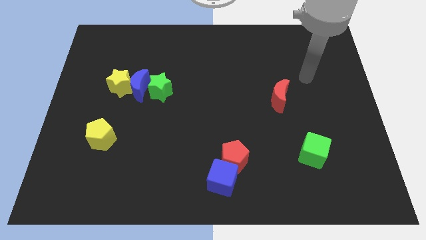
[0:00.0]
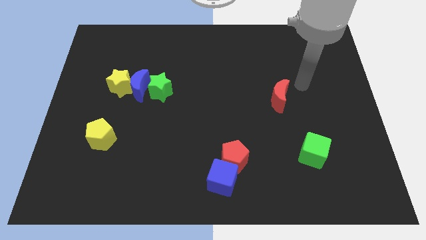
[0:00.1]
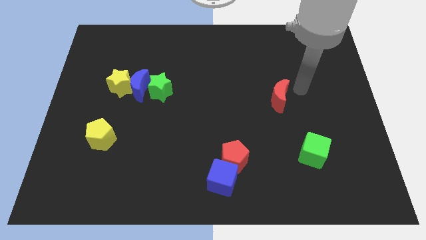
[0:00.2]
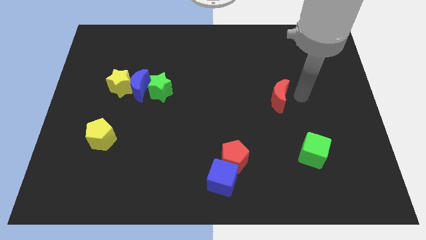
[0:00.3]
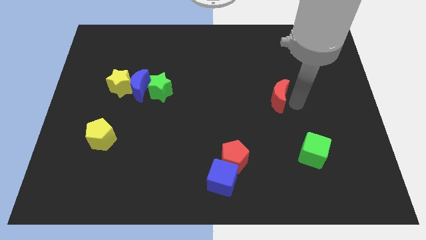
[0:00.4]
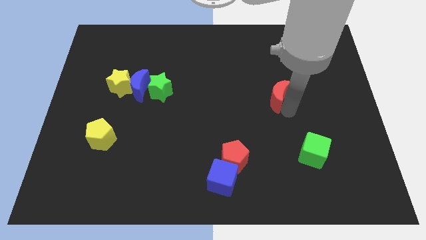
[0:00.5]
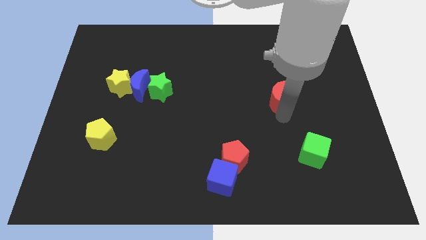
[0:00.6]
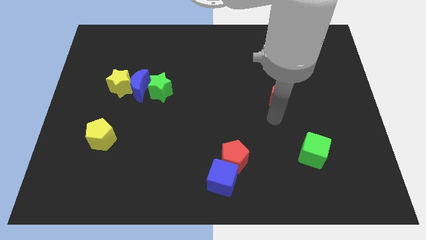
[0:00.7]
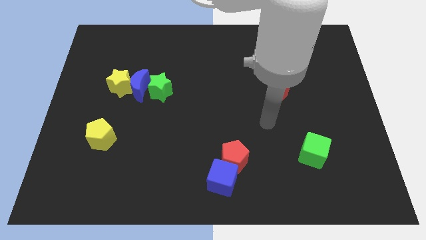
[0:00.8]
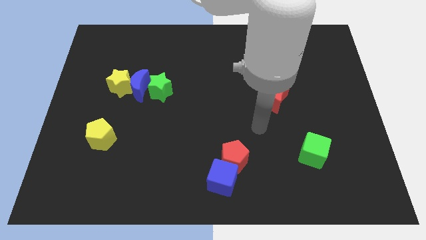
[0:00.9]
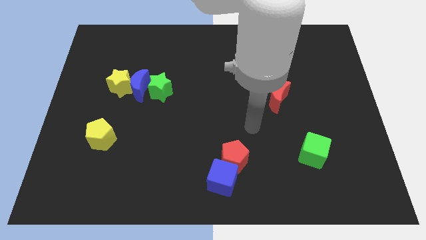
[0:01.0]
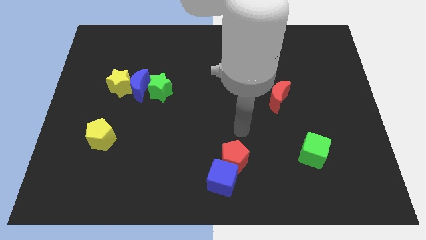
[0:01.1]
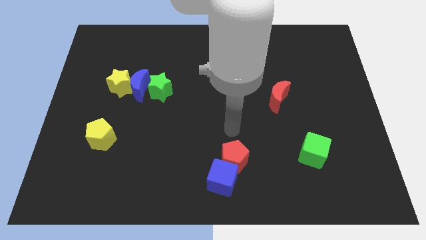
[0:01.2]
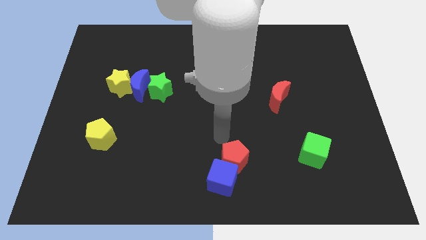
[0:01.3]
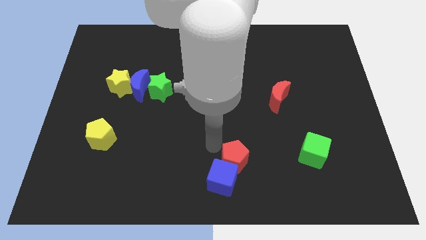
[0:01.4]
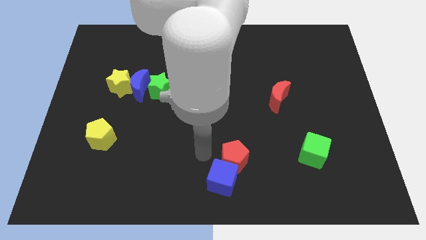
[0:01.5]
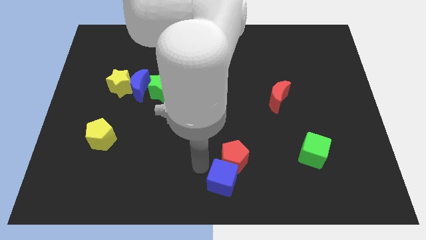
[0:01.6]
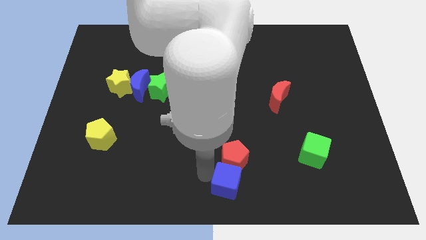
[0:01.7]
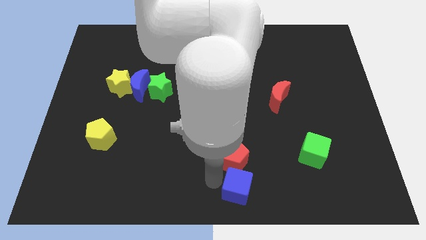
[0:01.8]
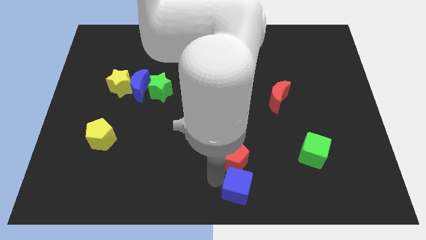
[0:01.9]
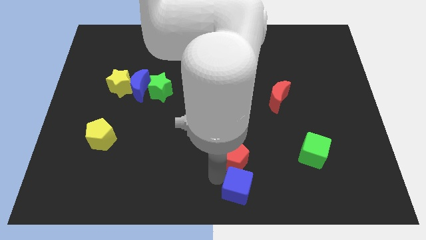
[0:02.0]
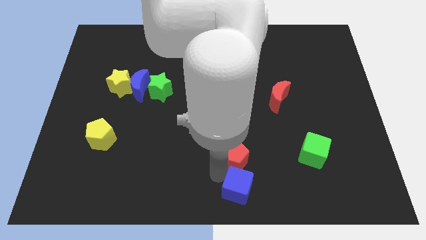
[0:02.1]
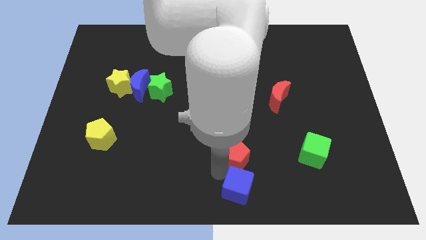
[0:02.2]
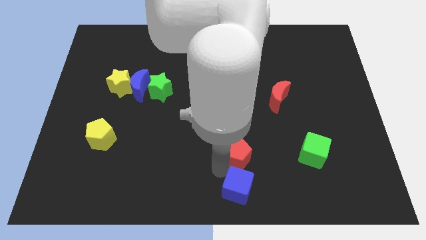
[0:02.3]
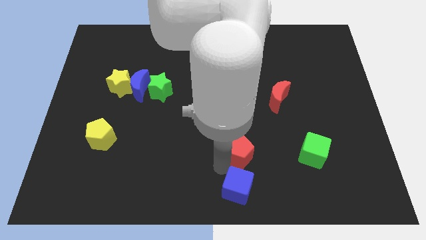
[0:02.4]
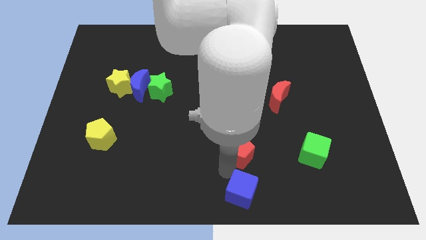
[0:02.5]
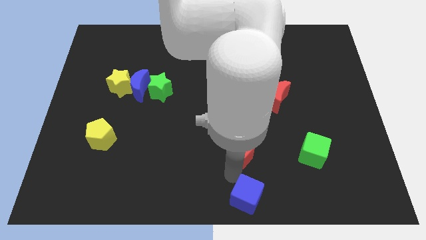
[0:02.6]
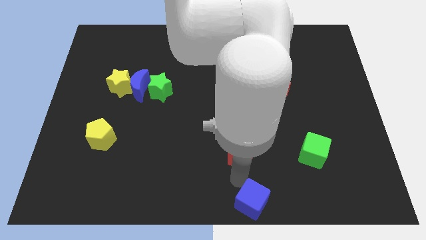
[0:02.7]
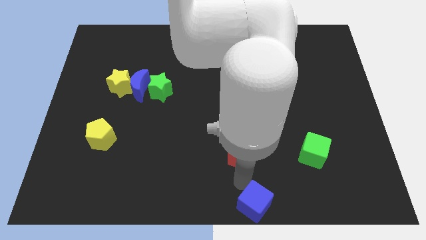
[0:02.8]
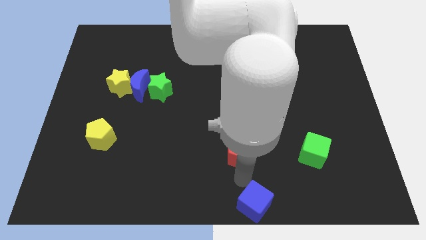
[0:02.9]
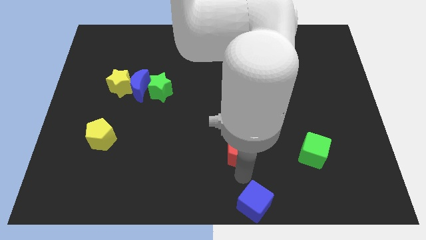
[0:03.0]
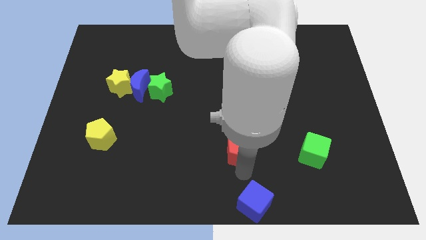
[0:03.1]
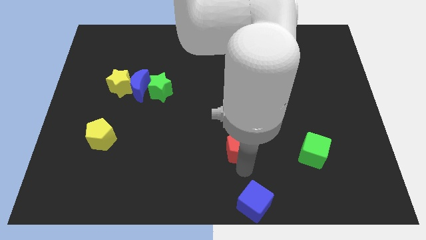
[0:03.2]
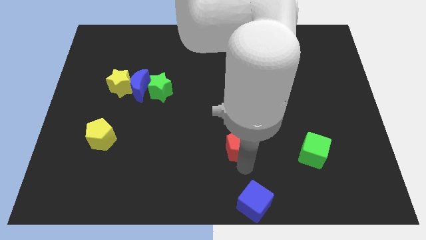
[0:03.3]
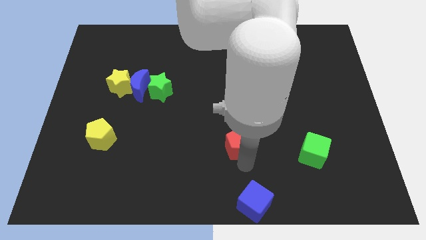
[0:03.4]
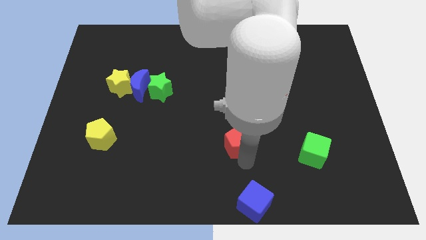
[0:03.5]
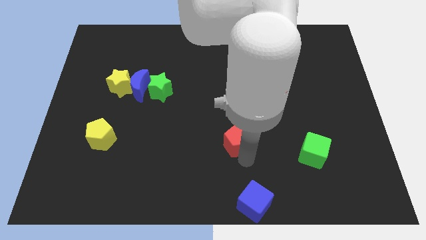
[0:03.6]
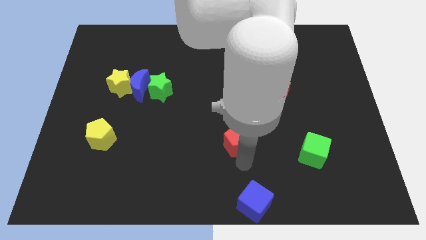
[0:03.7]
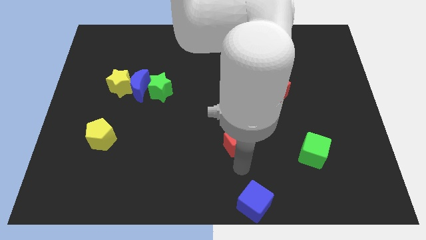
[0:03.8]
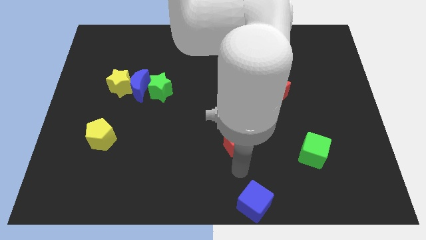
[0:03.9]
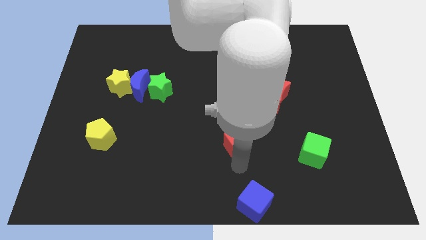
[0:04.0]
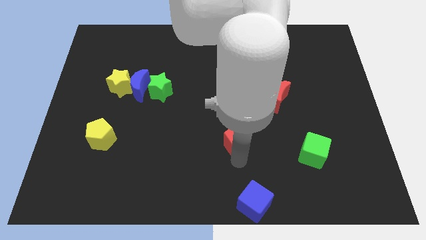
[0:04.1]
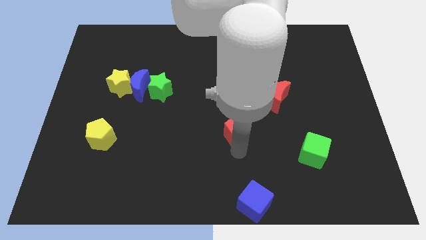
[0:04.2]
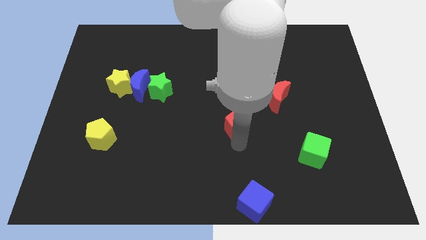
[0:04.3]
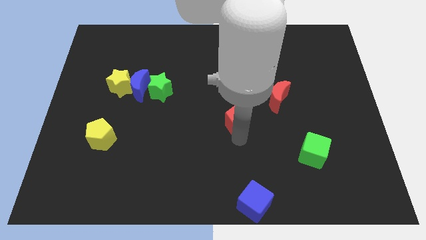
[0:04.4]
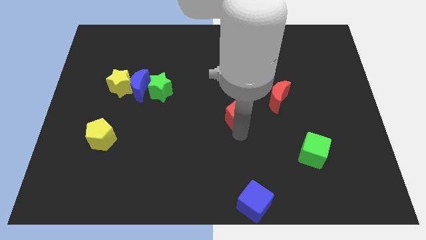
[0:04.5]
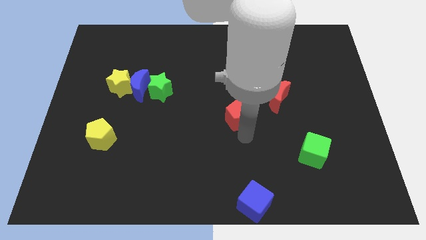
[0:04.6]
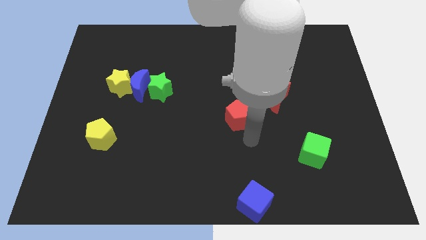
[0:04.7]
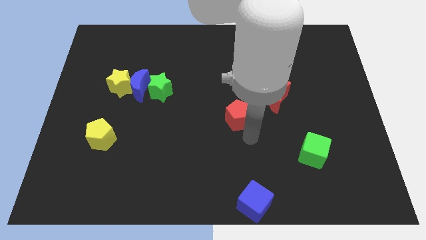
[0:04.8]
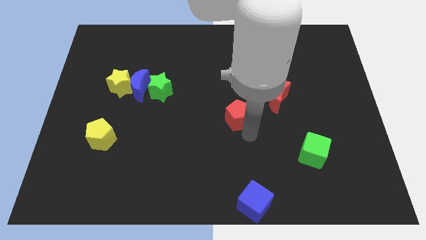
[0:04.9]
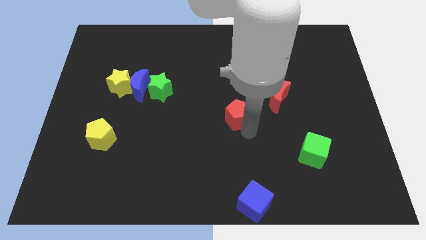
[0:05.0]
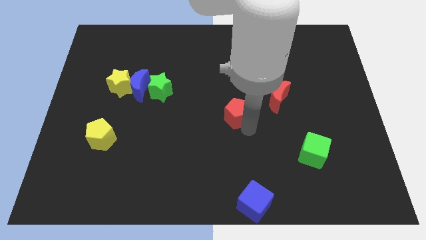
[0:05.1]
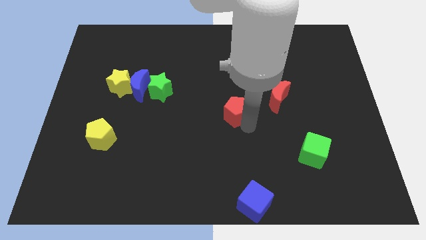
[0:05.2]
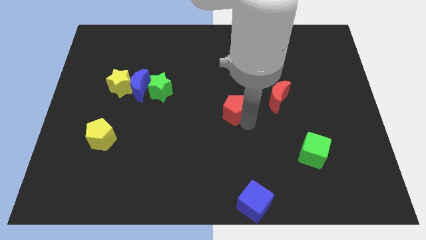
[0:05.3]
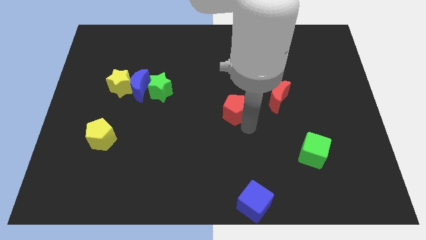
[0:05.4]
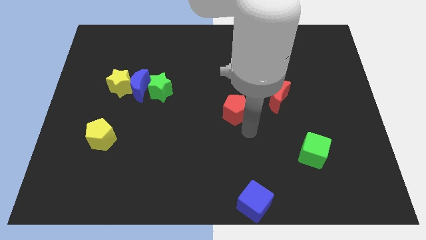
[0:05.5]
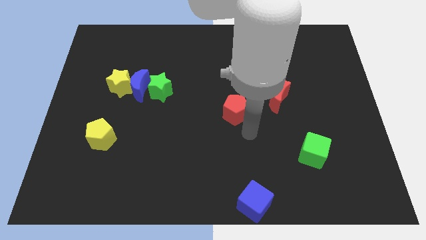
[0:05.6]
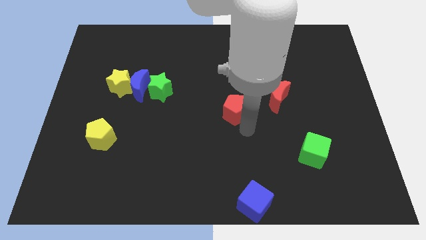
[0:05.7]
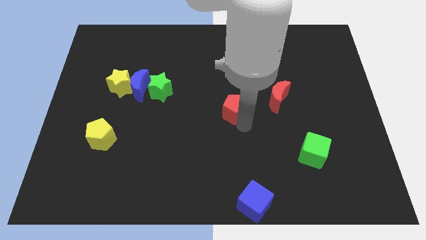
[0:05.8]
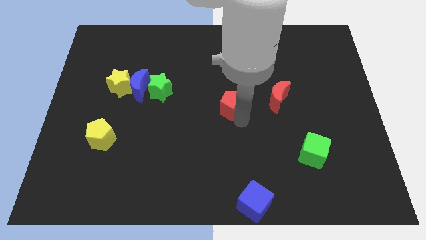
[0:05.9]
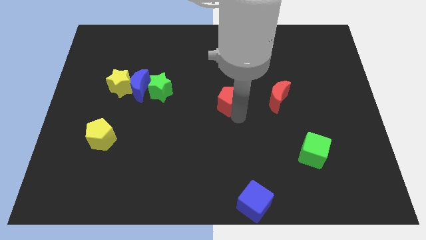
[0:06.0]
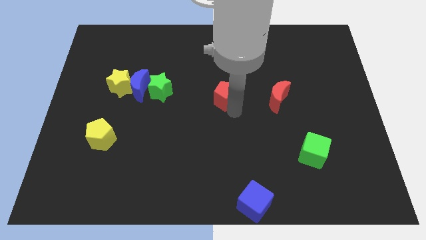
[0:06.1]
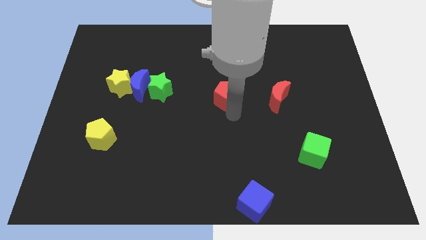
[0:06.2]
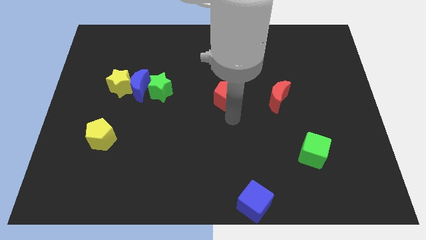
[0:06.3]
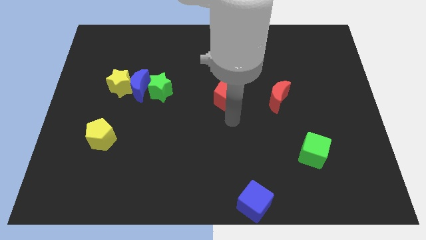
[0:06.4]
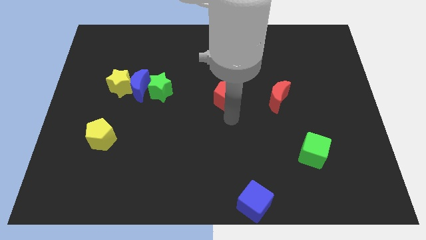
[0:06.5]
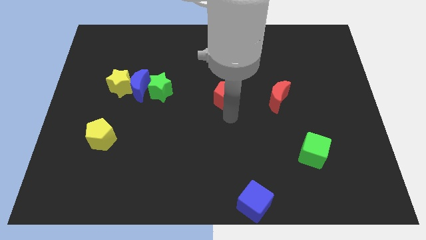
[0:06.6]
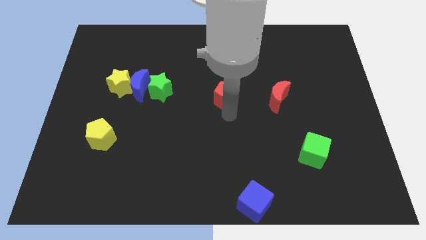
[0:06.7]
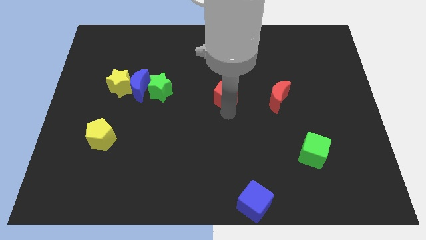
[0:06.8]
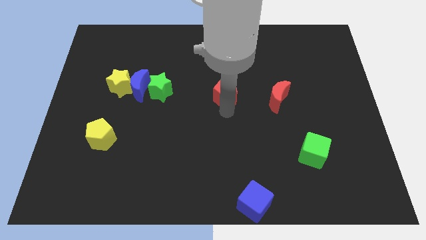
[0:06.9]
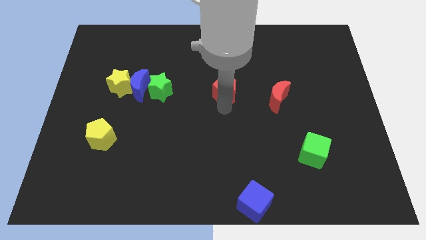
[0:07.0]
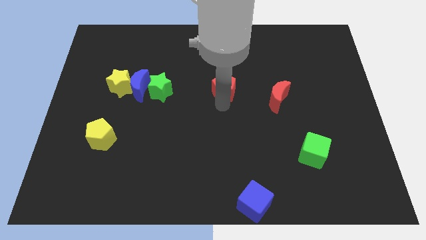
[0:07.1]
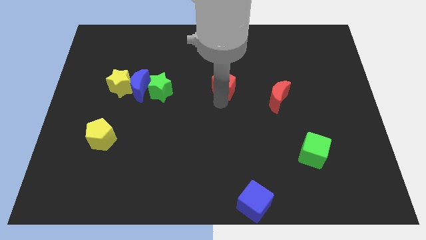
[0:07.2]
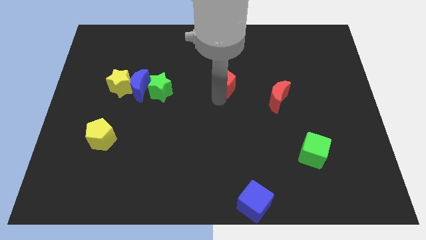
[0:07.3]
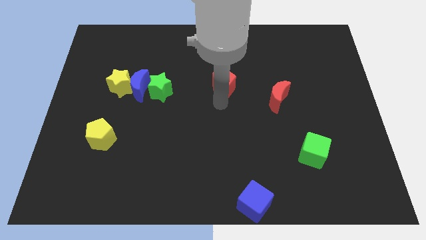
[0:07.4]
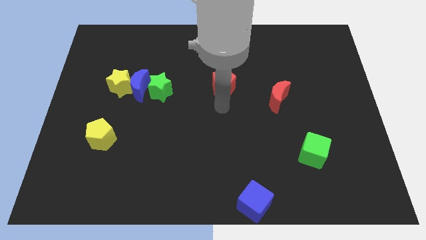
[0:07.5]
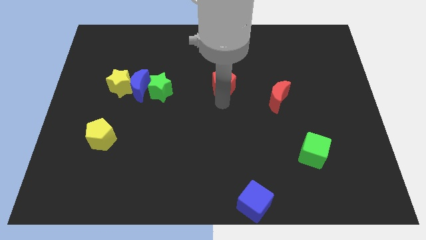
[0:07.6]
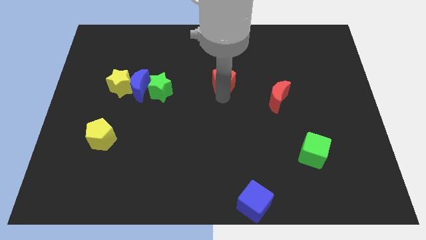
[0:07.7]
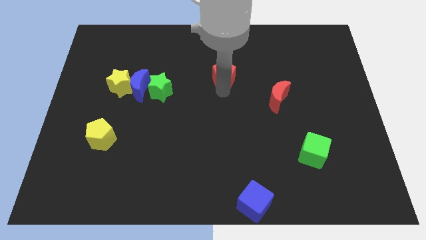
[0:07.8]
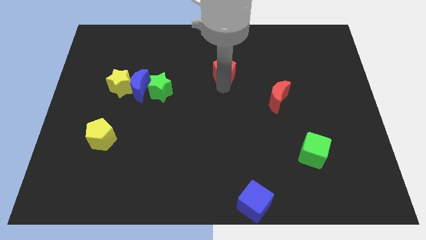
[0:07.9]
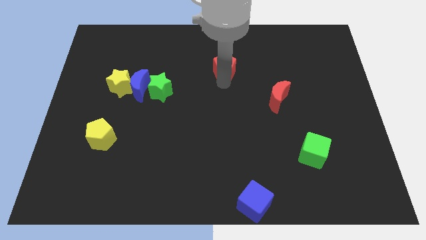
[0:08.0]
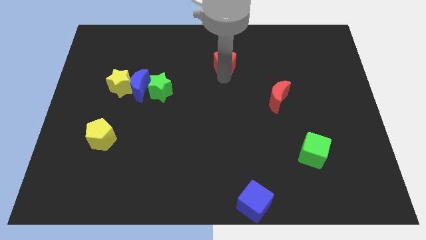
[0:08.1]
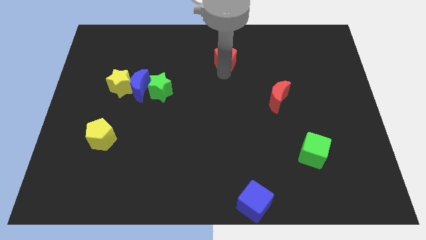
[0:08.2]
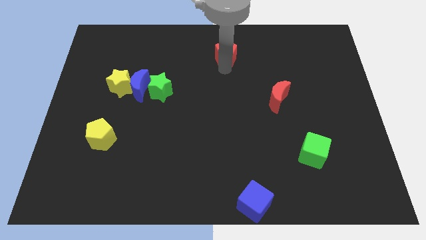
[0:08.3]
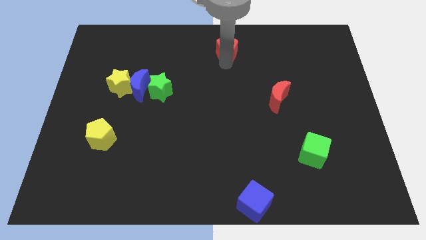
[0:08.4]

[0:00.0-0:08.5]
slide the red pentagon to the top side
